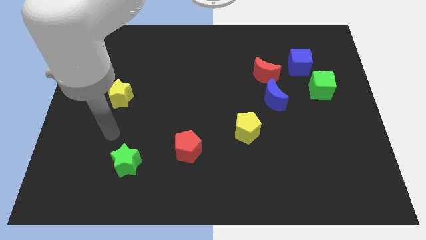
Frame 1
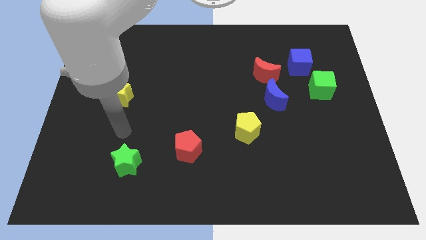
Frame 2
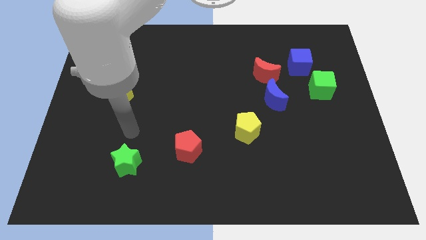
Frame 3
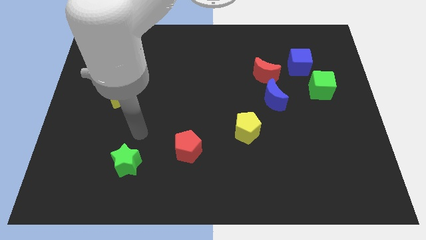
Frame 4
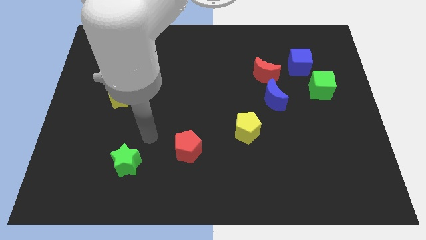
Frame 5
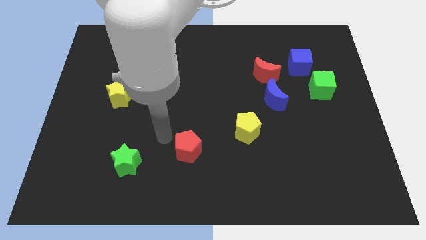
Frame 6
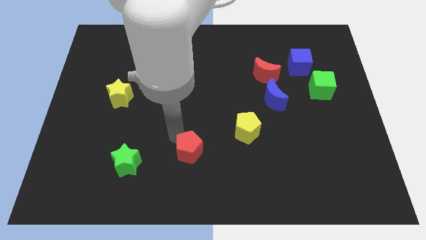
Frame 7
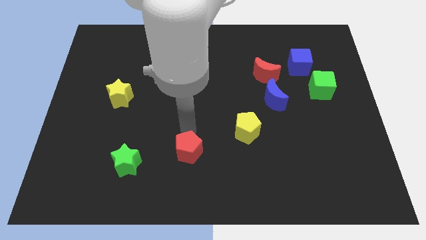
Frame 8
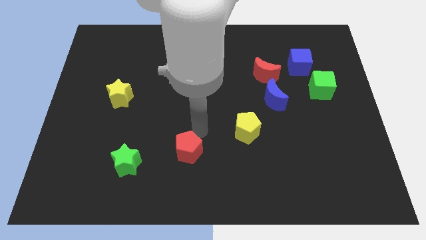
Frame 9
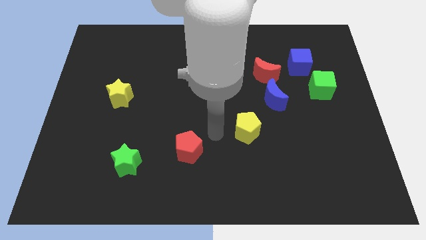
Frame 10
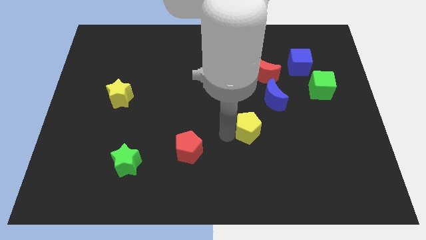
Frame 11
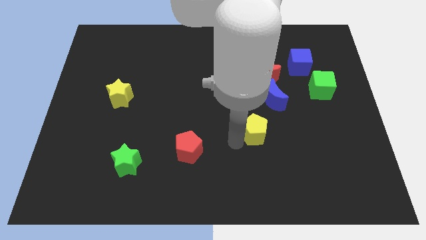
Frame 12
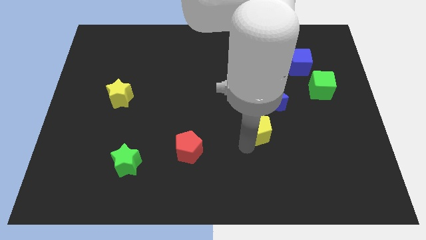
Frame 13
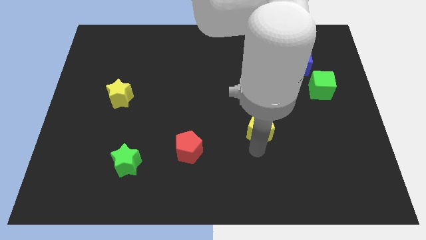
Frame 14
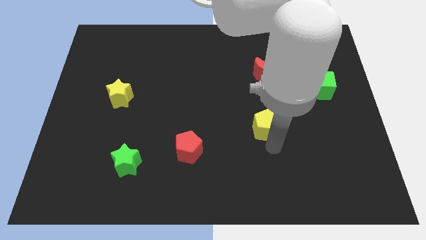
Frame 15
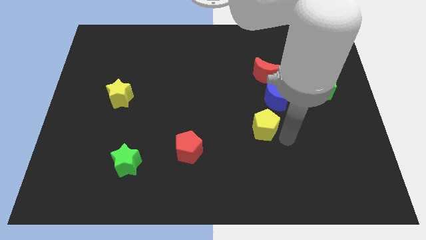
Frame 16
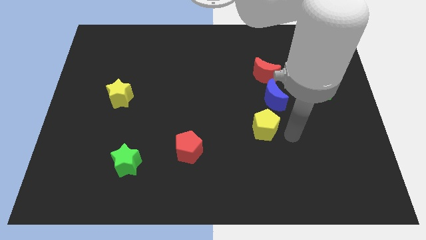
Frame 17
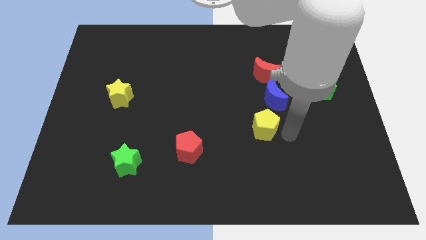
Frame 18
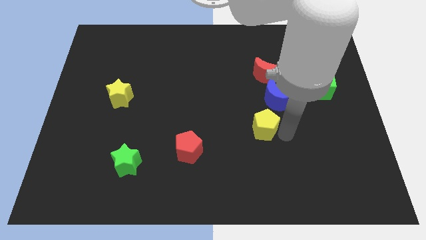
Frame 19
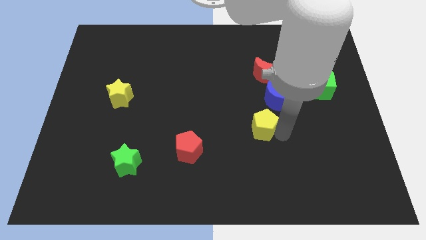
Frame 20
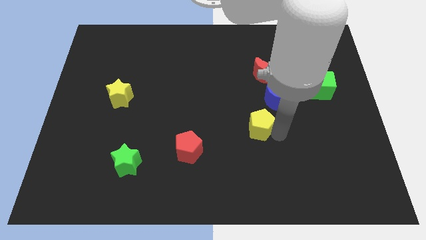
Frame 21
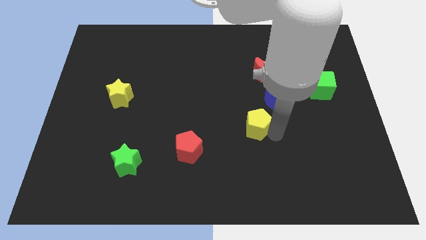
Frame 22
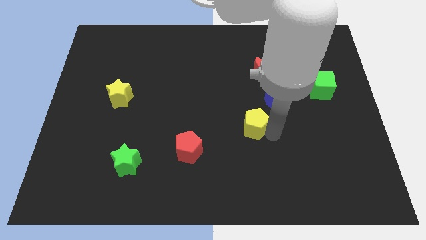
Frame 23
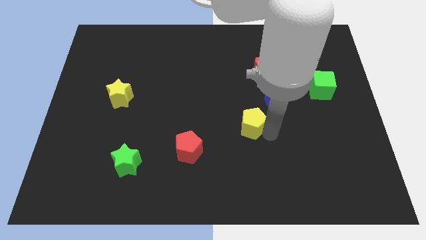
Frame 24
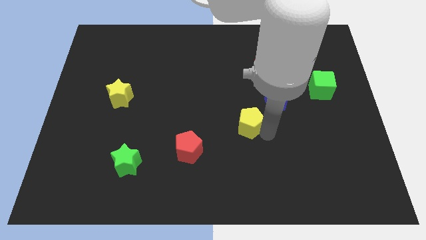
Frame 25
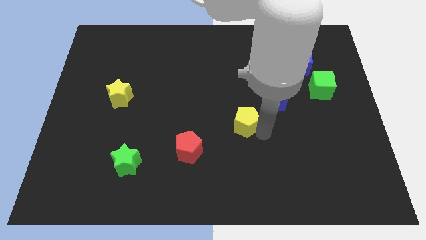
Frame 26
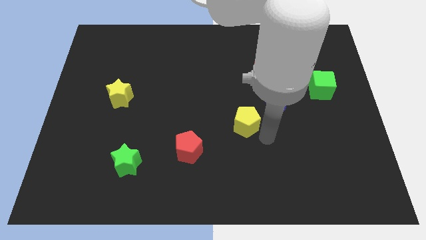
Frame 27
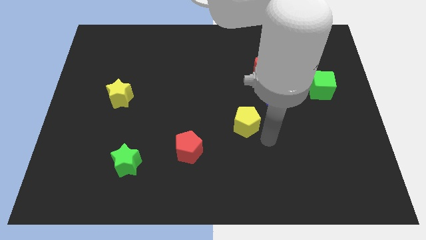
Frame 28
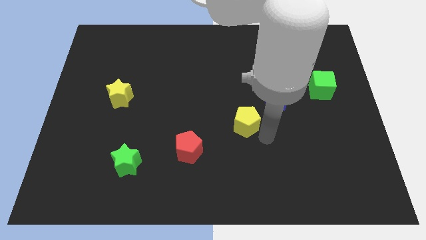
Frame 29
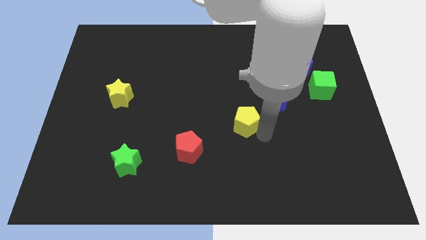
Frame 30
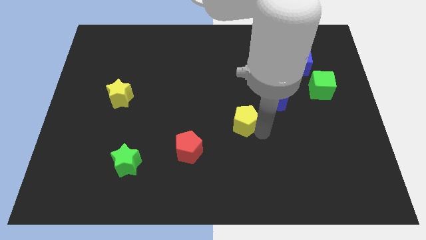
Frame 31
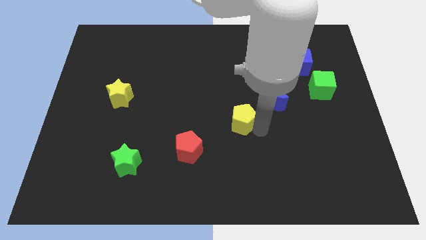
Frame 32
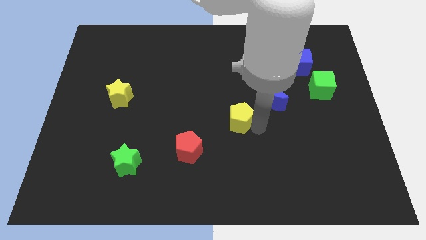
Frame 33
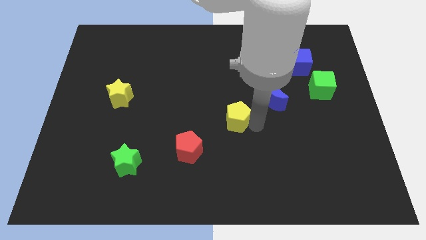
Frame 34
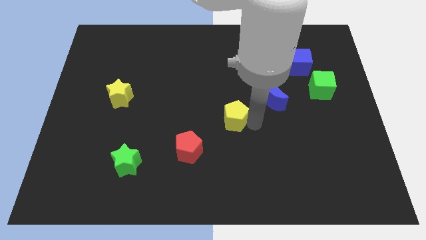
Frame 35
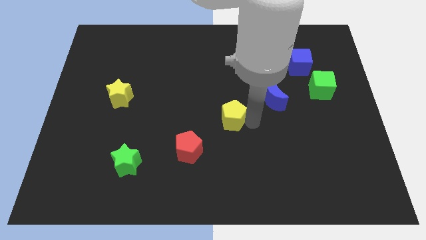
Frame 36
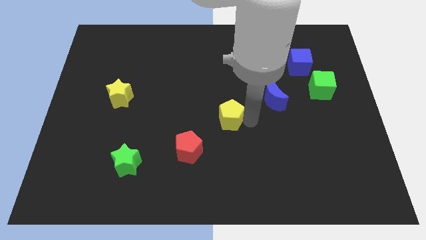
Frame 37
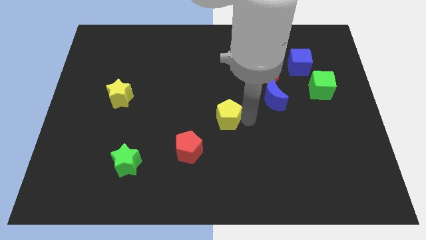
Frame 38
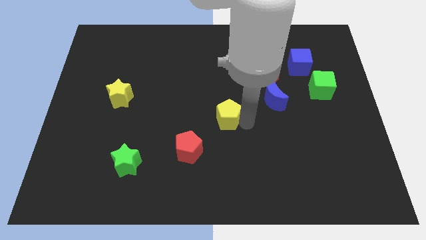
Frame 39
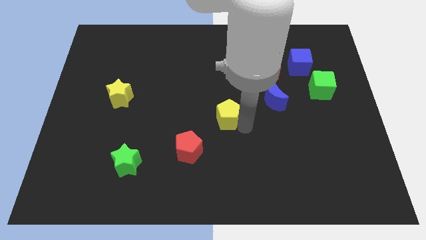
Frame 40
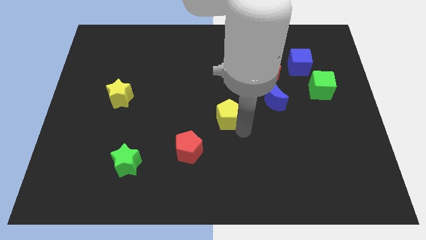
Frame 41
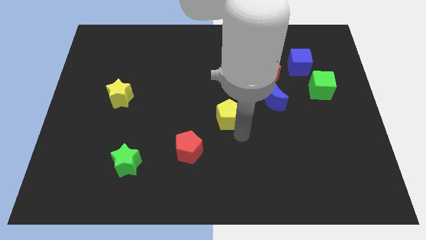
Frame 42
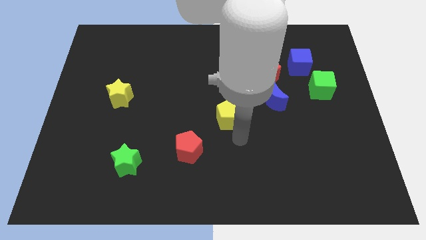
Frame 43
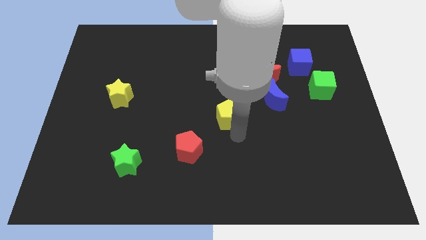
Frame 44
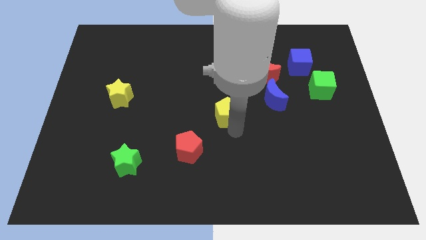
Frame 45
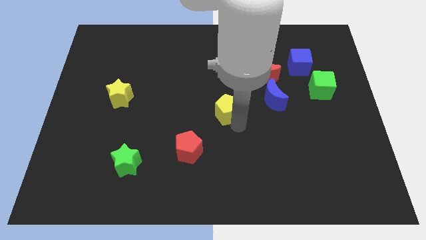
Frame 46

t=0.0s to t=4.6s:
move the yellow pentagon diagonally up and to the left a little

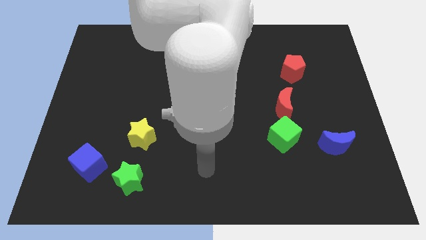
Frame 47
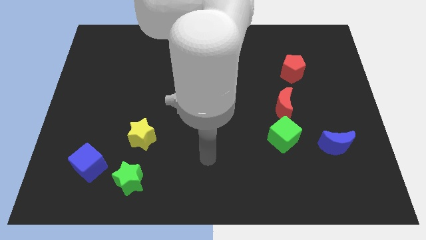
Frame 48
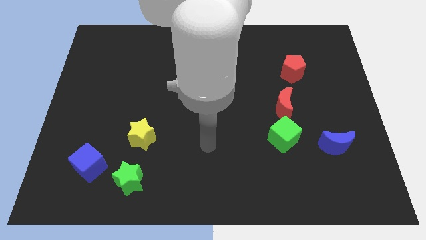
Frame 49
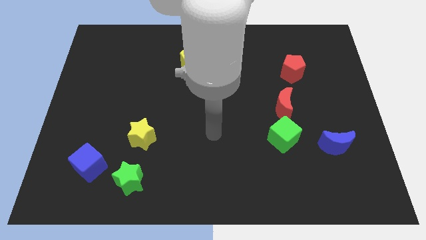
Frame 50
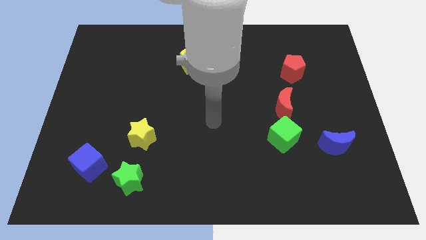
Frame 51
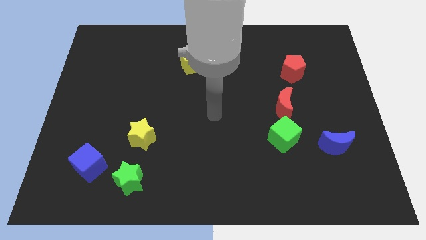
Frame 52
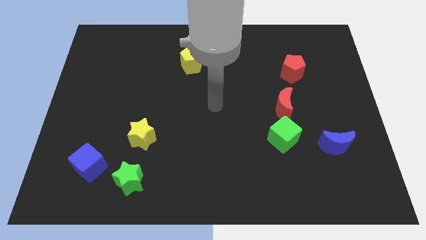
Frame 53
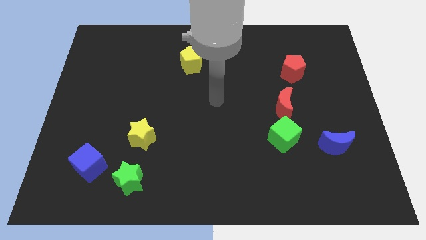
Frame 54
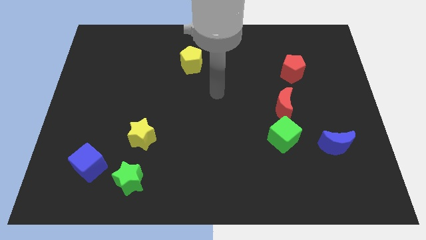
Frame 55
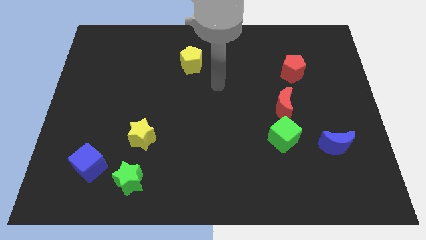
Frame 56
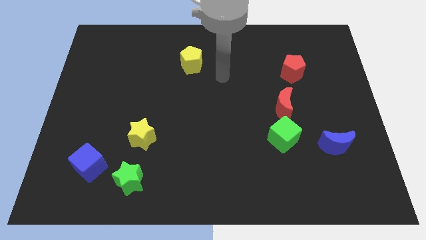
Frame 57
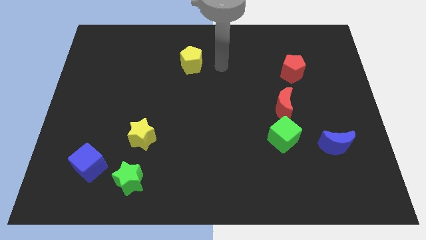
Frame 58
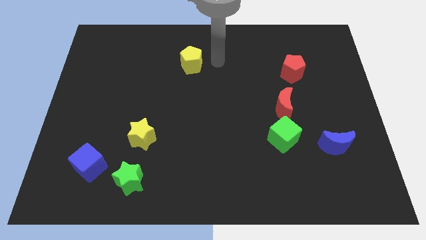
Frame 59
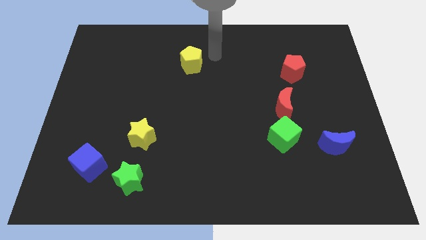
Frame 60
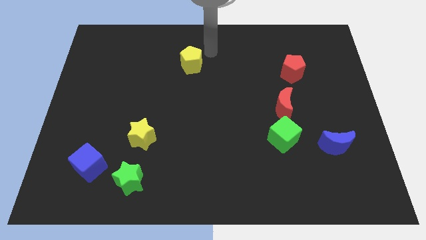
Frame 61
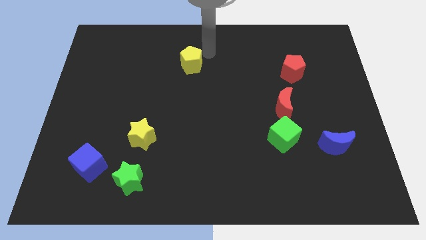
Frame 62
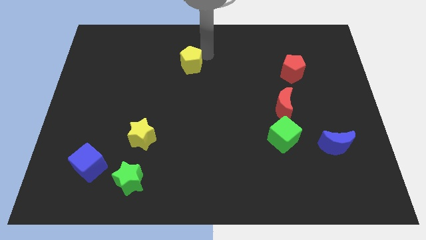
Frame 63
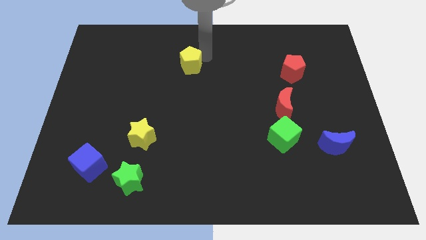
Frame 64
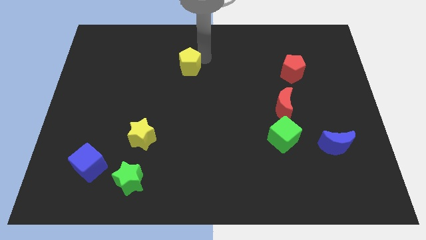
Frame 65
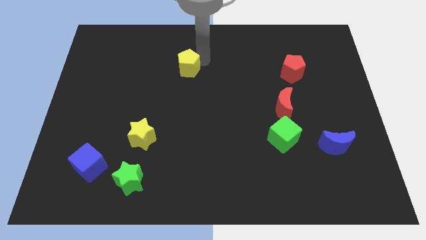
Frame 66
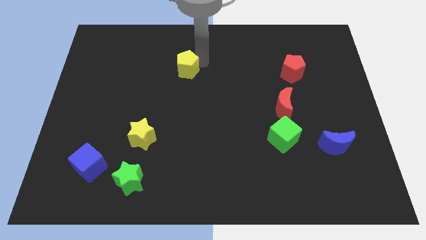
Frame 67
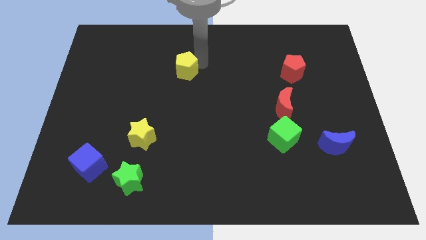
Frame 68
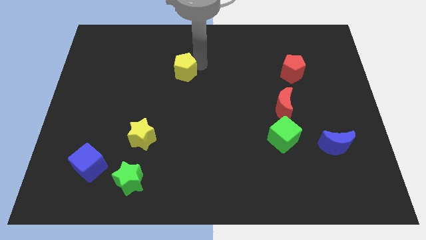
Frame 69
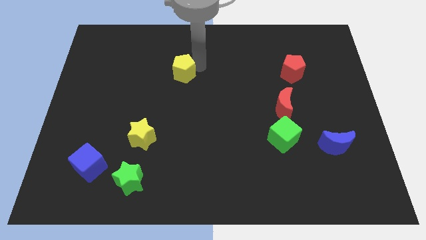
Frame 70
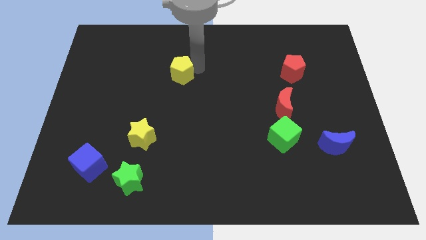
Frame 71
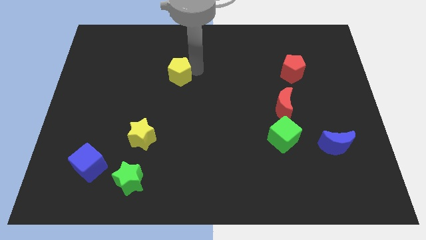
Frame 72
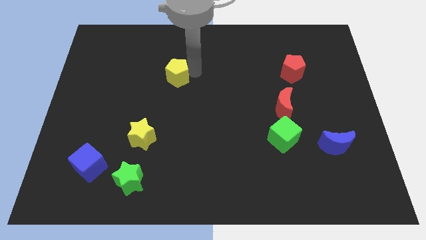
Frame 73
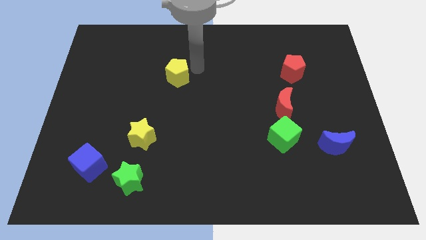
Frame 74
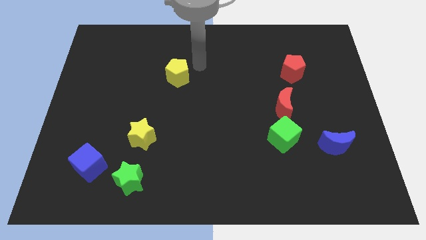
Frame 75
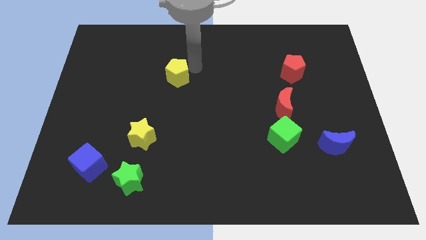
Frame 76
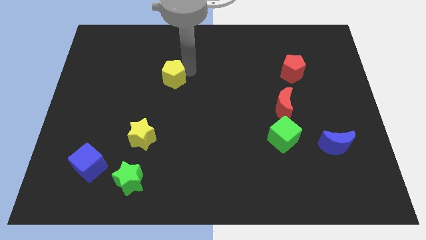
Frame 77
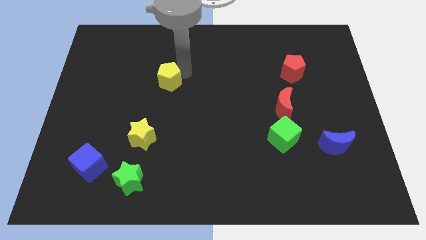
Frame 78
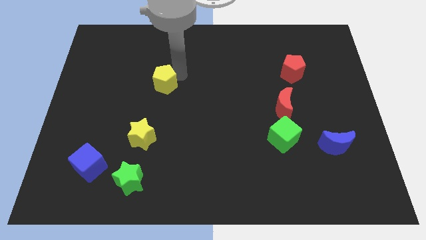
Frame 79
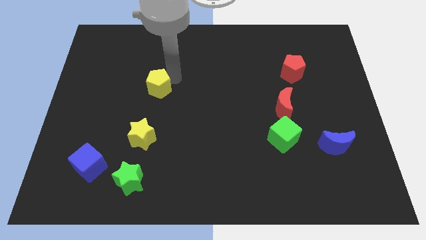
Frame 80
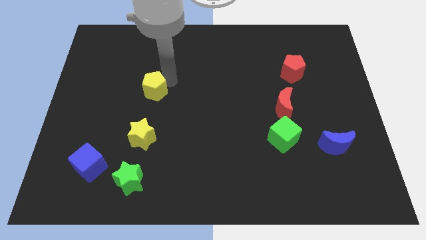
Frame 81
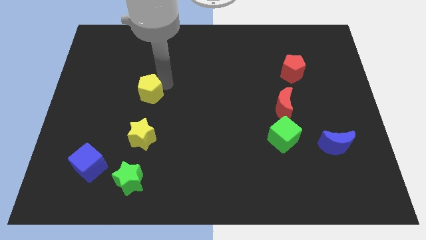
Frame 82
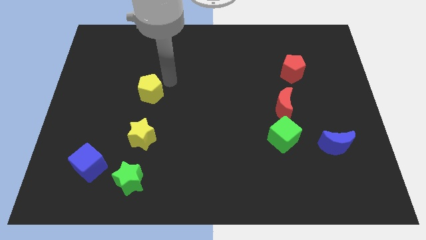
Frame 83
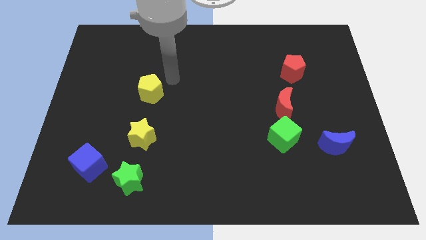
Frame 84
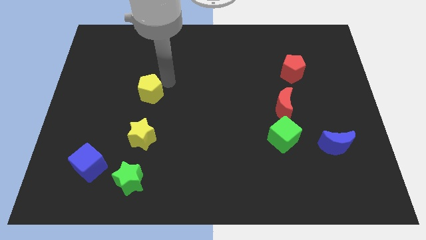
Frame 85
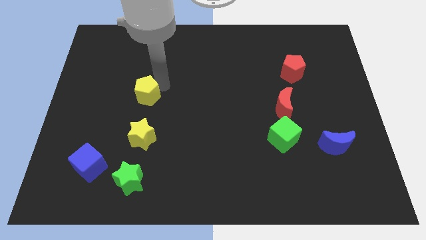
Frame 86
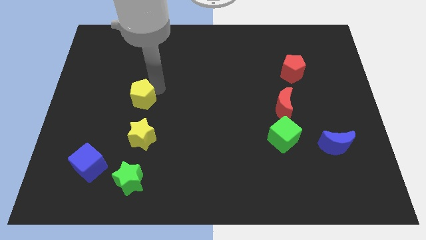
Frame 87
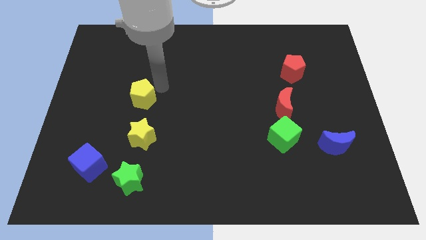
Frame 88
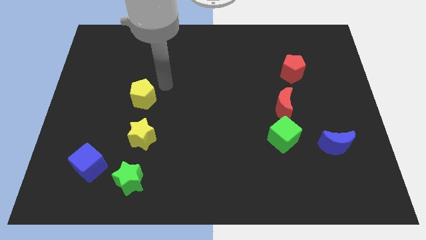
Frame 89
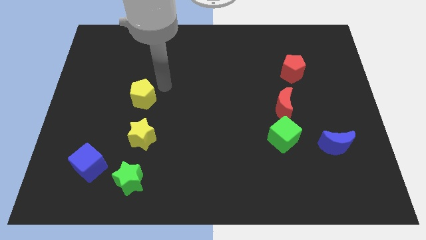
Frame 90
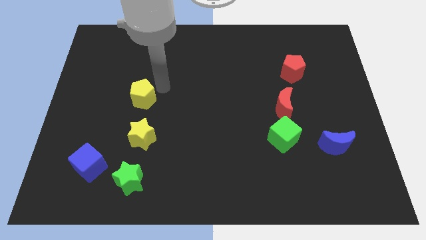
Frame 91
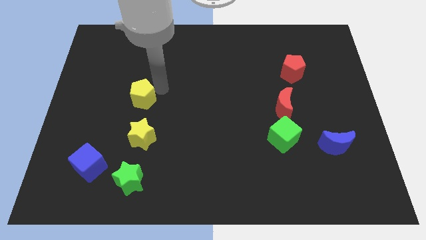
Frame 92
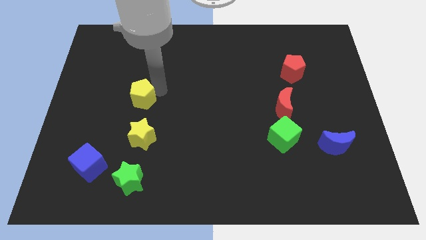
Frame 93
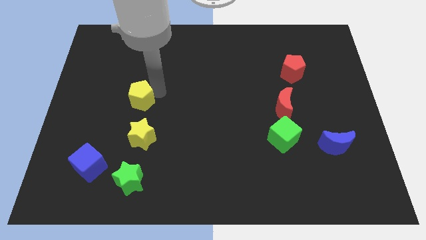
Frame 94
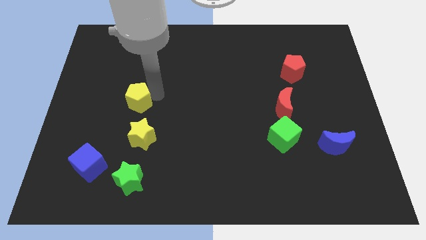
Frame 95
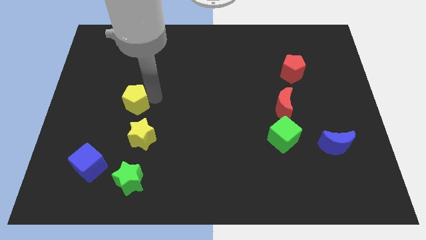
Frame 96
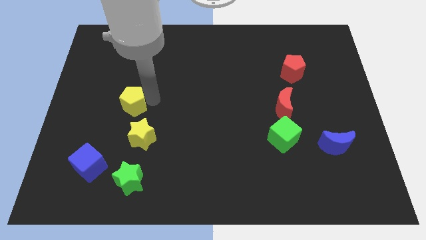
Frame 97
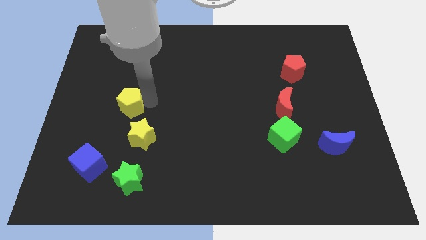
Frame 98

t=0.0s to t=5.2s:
push the yellow pentagon down and left diagonally
